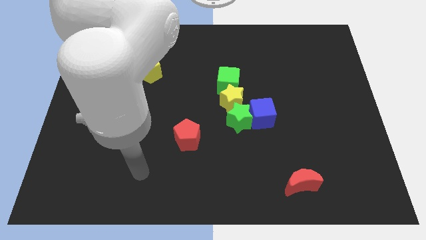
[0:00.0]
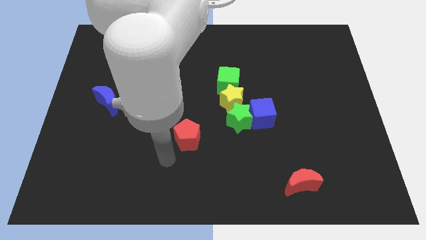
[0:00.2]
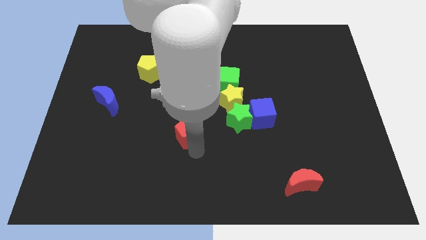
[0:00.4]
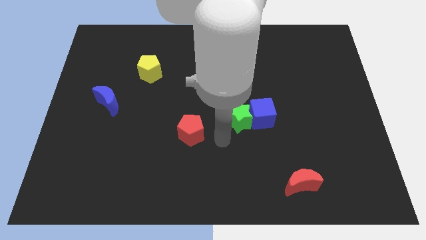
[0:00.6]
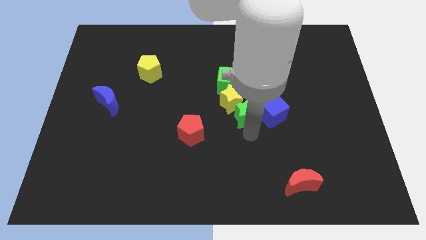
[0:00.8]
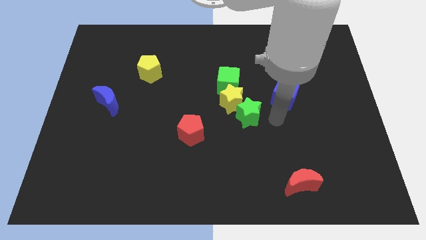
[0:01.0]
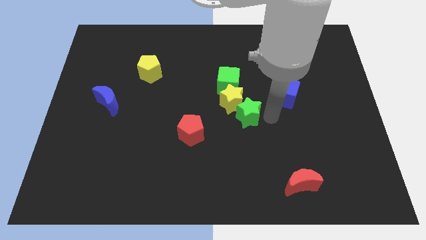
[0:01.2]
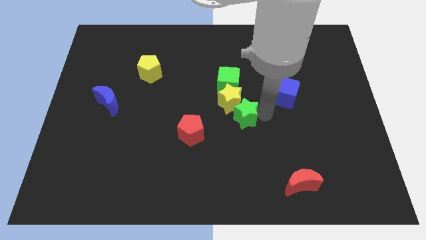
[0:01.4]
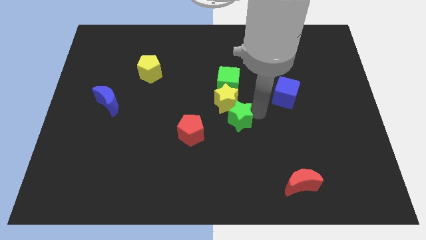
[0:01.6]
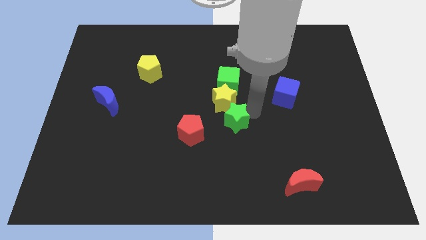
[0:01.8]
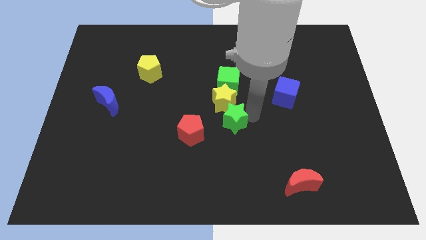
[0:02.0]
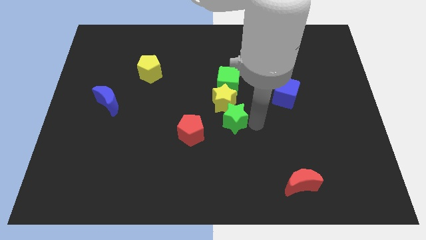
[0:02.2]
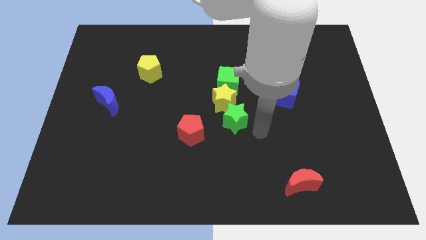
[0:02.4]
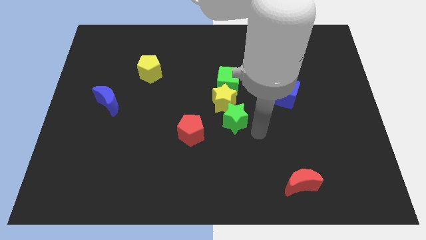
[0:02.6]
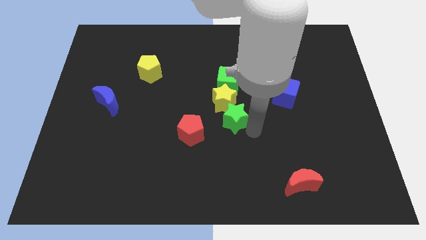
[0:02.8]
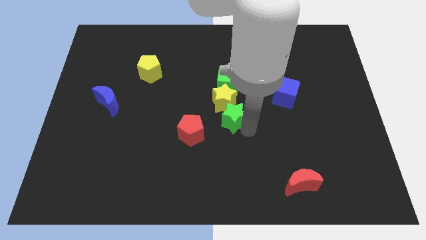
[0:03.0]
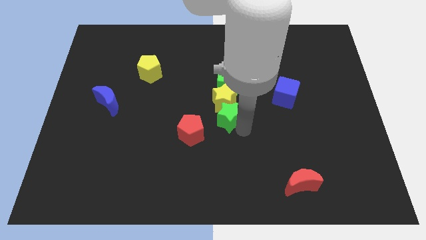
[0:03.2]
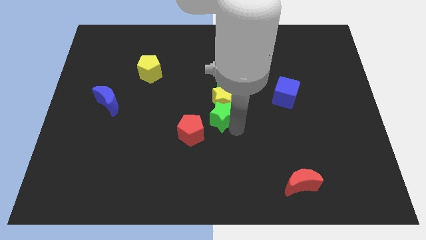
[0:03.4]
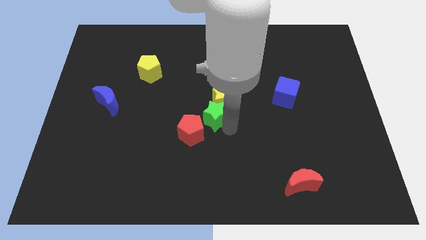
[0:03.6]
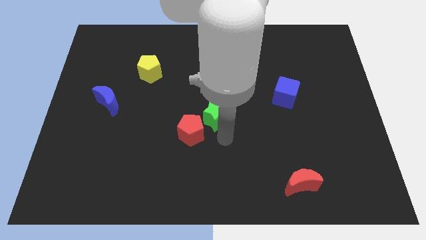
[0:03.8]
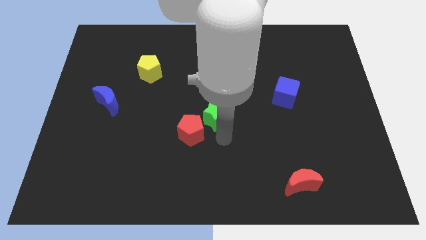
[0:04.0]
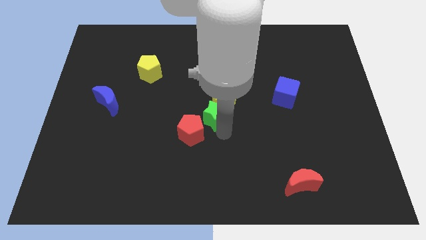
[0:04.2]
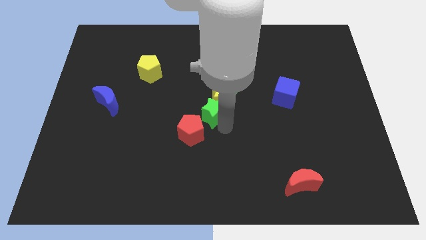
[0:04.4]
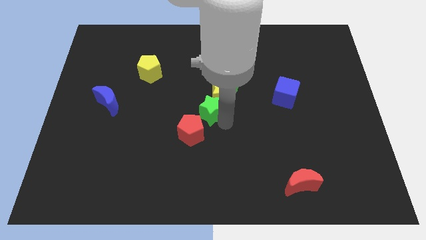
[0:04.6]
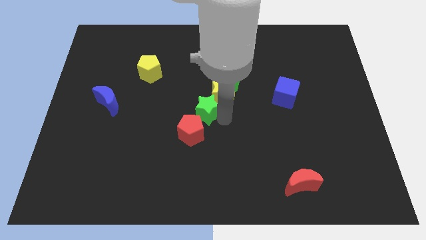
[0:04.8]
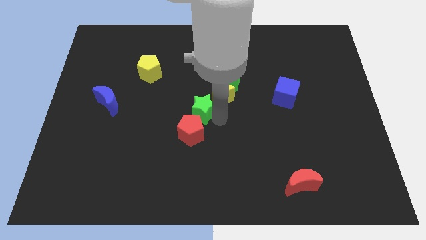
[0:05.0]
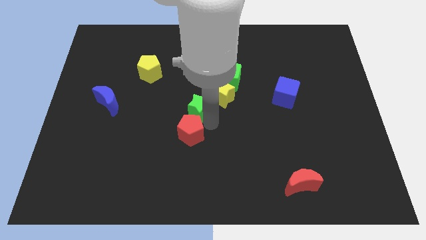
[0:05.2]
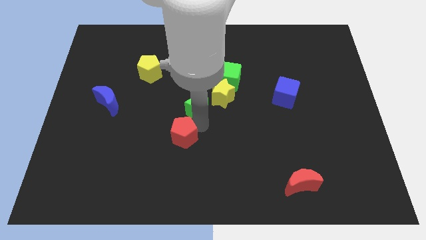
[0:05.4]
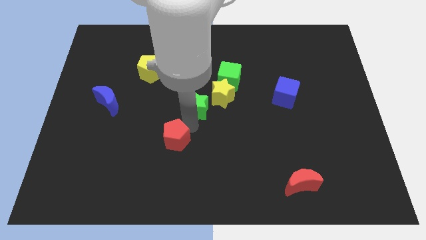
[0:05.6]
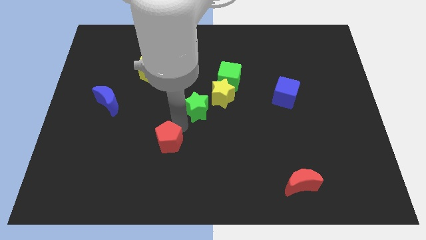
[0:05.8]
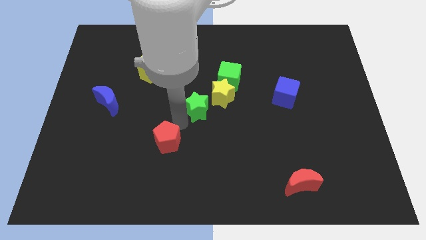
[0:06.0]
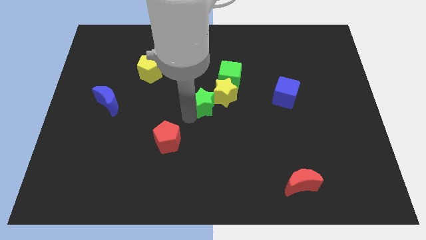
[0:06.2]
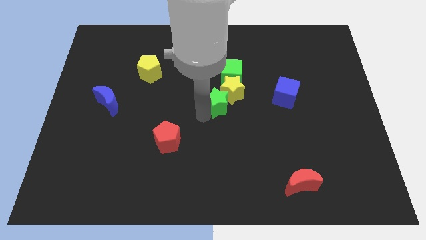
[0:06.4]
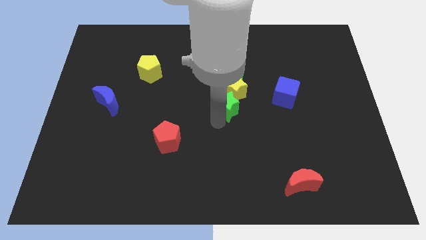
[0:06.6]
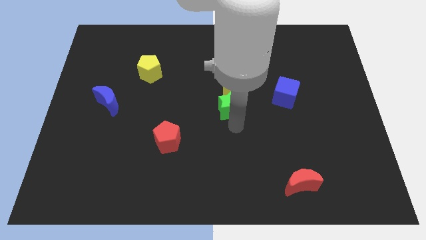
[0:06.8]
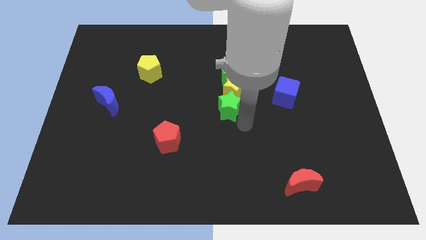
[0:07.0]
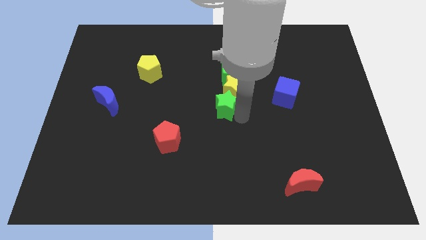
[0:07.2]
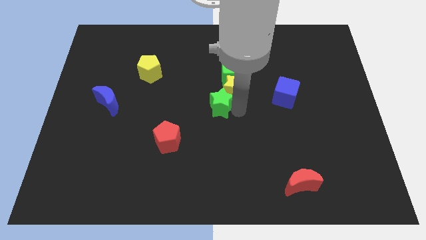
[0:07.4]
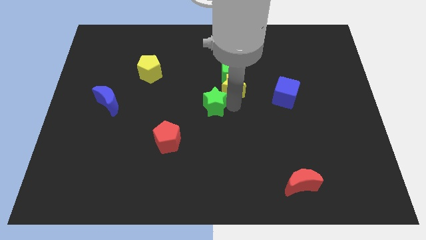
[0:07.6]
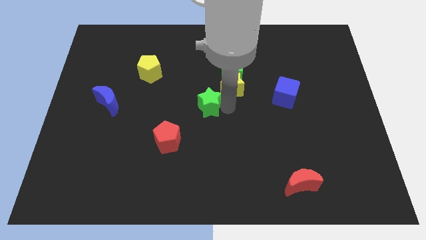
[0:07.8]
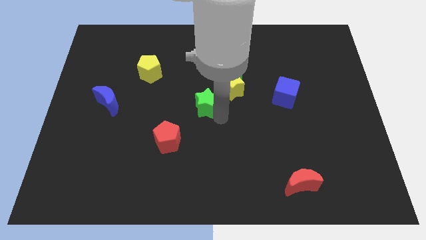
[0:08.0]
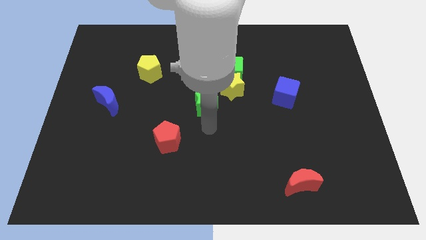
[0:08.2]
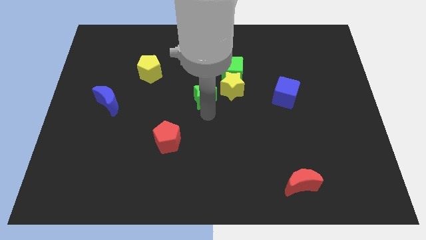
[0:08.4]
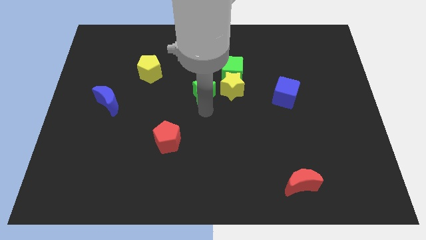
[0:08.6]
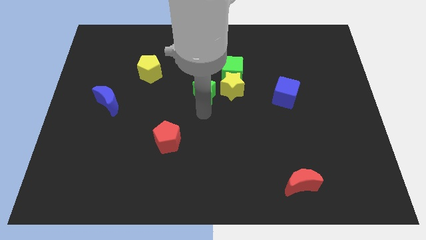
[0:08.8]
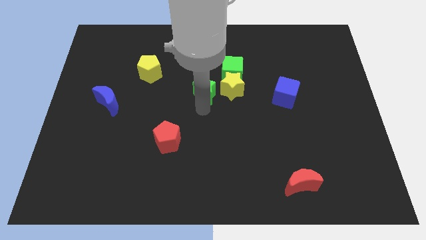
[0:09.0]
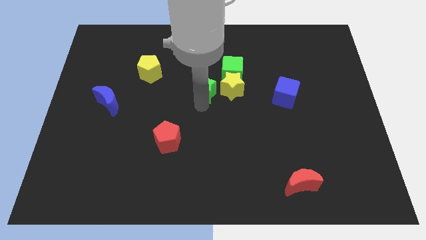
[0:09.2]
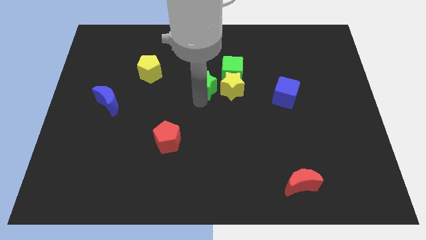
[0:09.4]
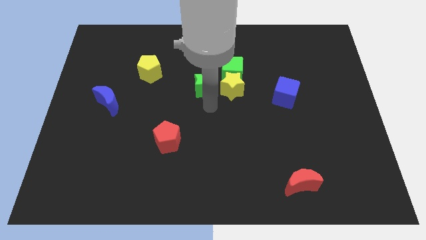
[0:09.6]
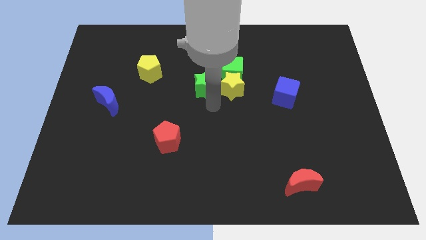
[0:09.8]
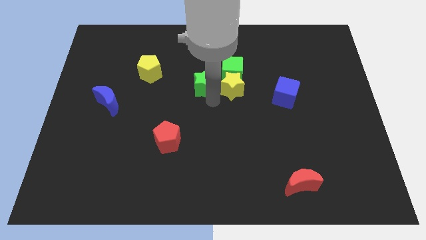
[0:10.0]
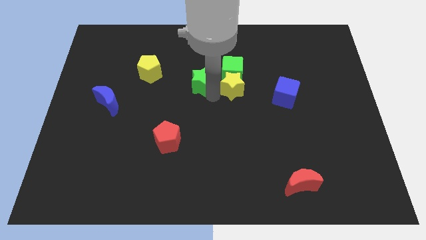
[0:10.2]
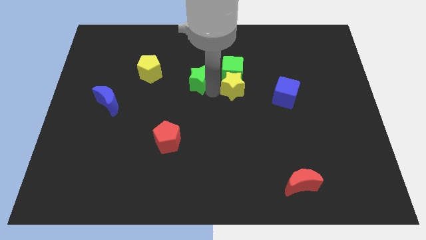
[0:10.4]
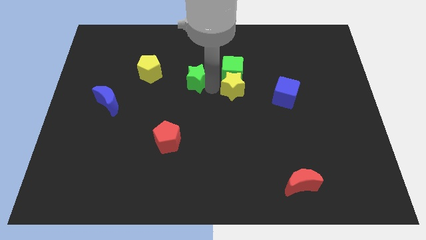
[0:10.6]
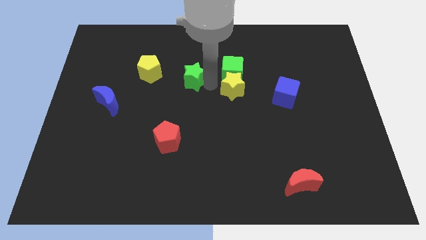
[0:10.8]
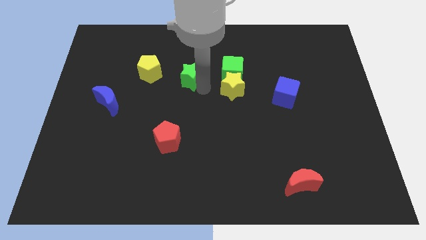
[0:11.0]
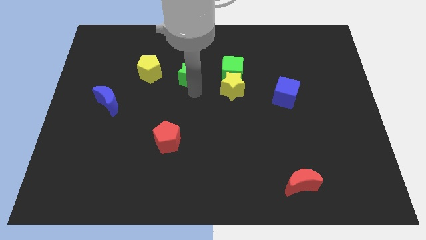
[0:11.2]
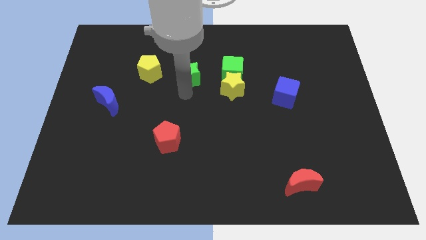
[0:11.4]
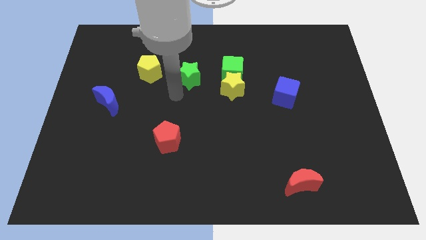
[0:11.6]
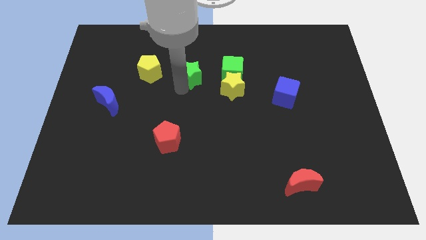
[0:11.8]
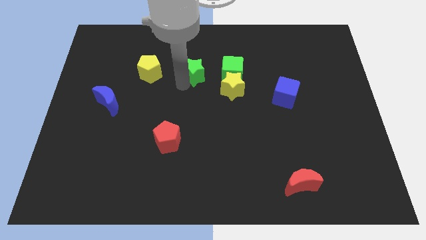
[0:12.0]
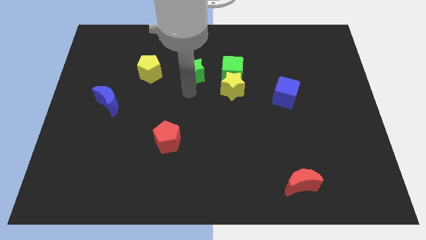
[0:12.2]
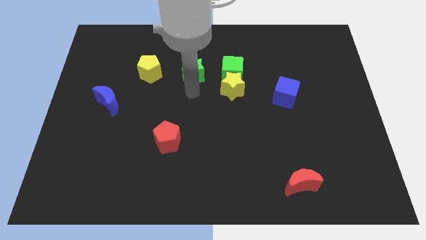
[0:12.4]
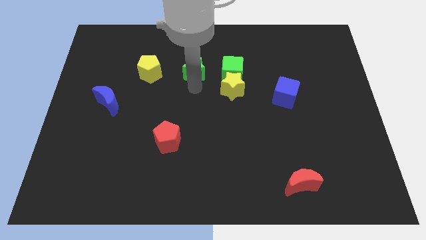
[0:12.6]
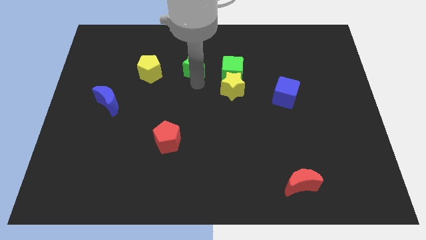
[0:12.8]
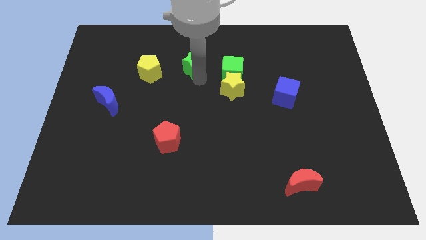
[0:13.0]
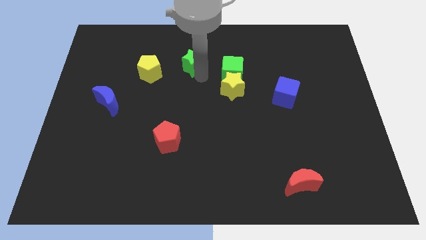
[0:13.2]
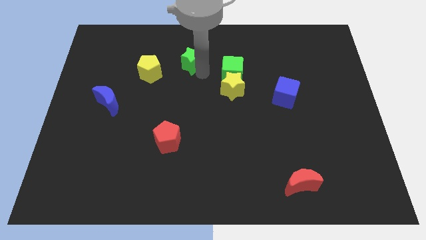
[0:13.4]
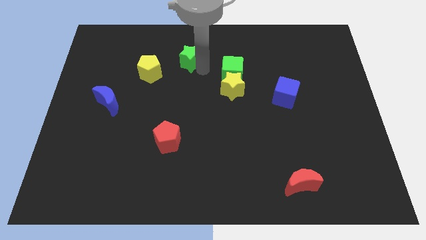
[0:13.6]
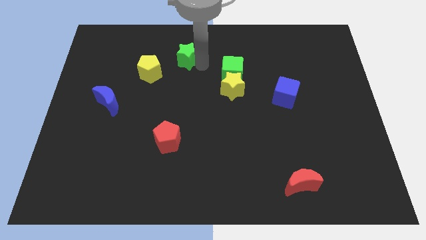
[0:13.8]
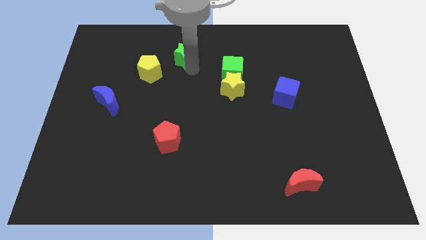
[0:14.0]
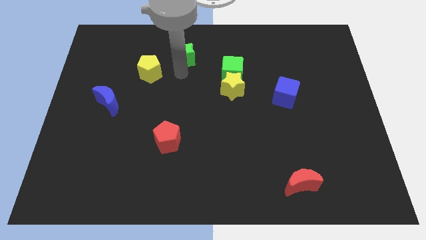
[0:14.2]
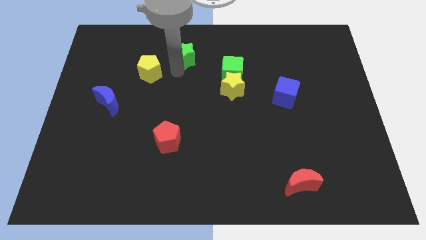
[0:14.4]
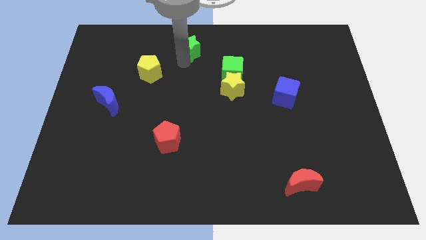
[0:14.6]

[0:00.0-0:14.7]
move the green star to the top
